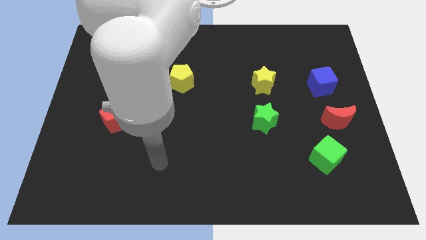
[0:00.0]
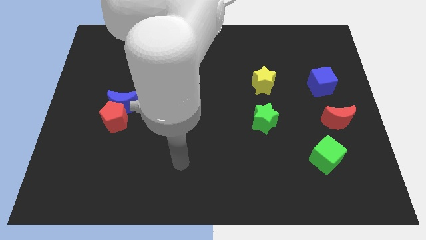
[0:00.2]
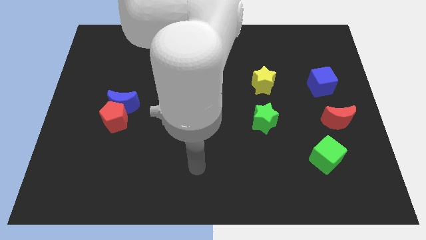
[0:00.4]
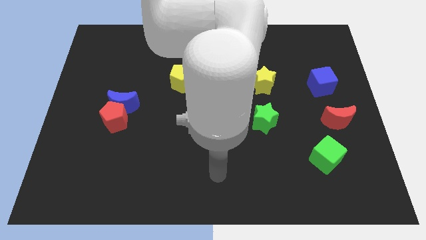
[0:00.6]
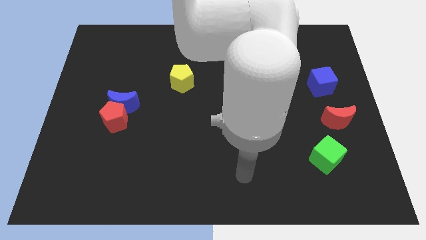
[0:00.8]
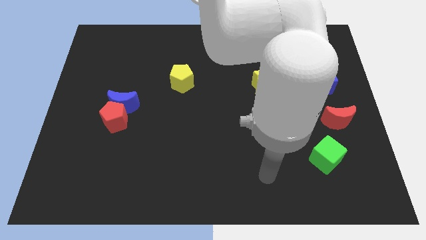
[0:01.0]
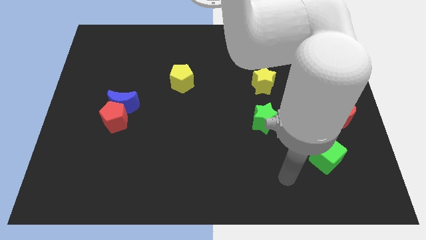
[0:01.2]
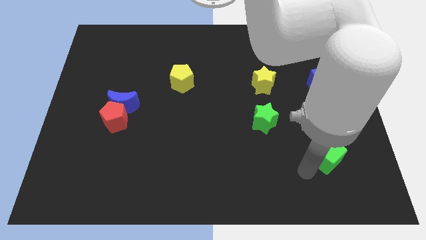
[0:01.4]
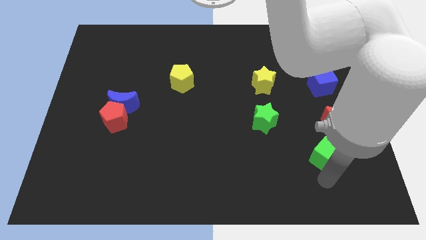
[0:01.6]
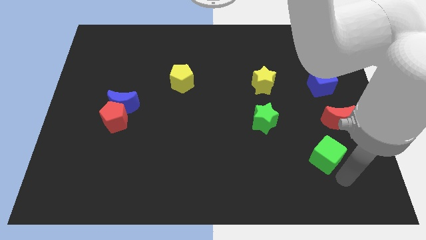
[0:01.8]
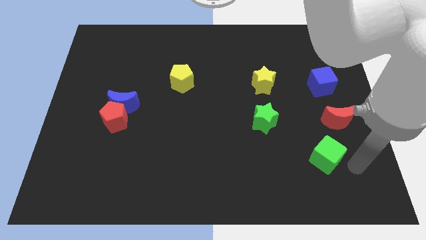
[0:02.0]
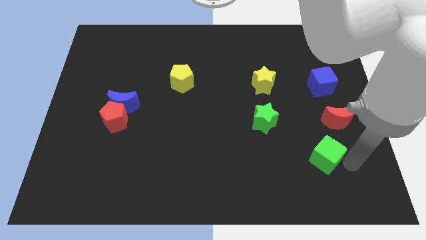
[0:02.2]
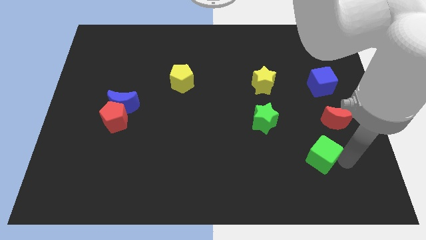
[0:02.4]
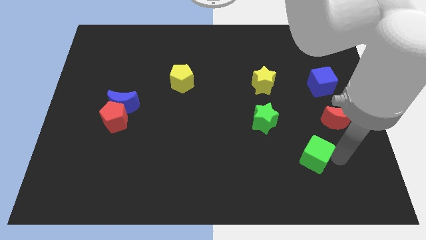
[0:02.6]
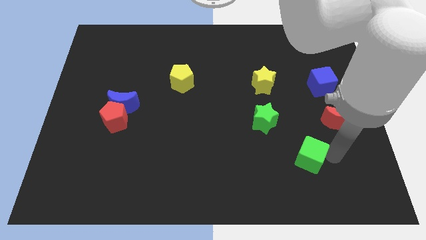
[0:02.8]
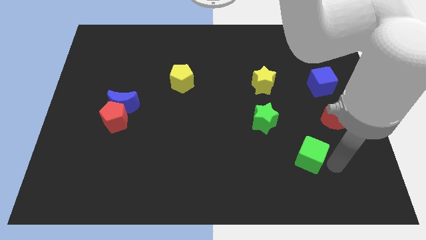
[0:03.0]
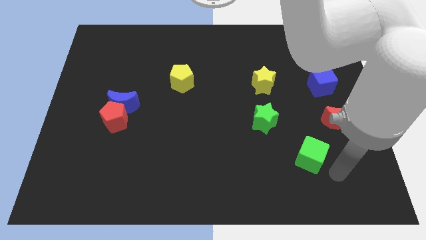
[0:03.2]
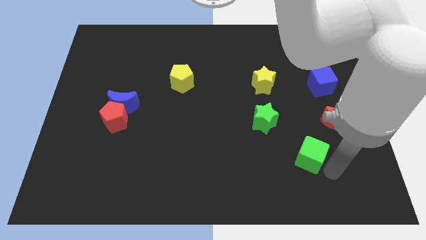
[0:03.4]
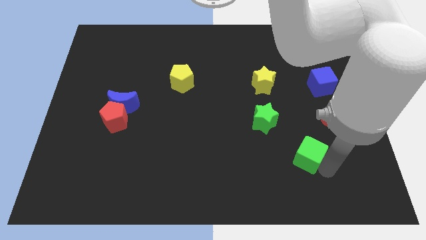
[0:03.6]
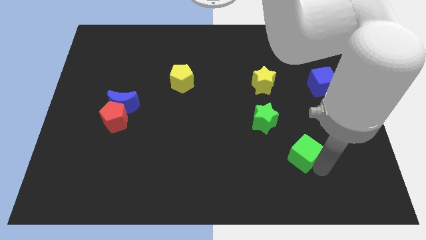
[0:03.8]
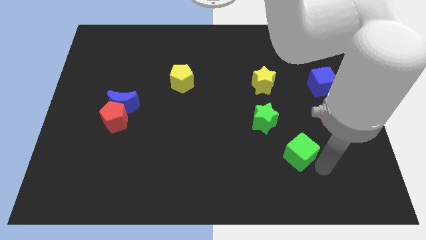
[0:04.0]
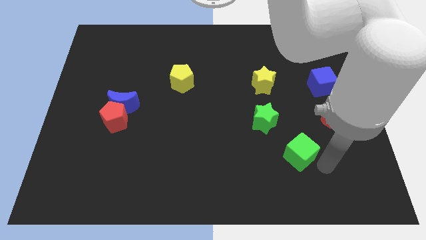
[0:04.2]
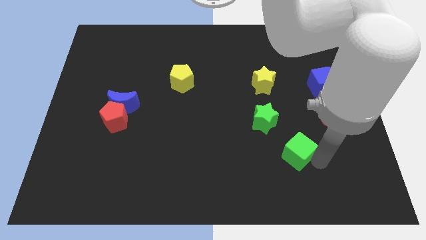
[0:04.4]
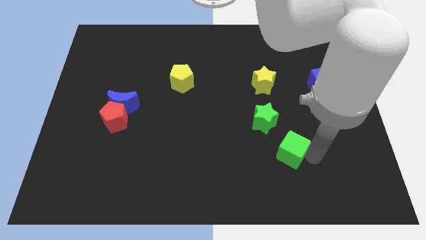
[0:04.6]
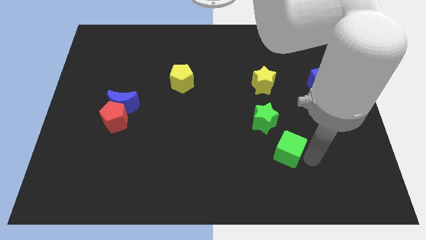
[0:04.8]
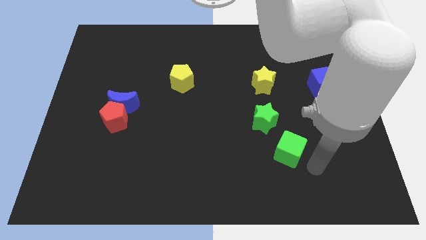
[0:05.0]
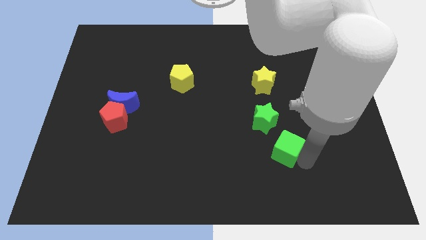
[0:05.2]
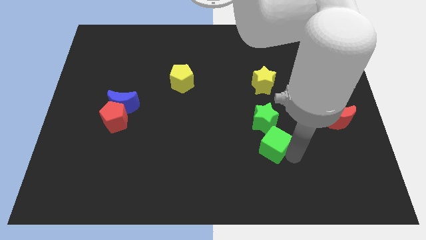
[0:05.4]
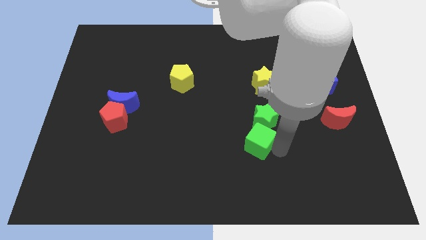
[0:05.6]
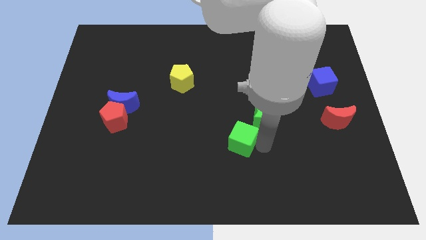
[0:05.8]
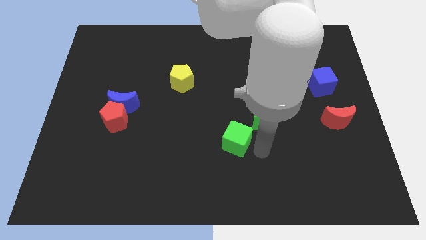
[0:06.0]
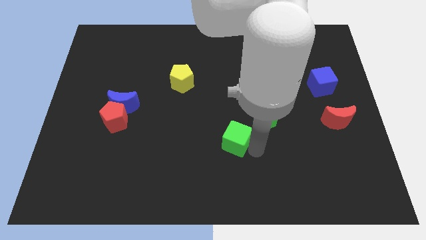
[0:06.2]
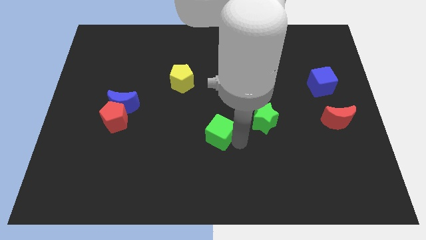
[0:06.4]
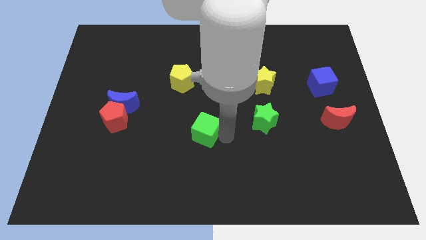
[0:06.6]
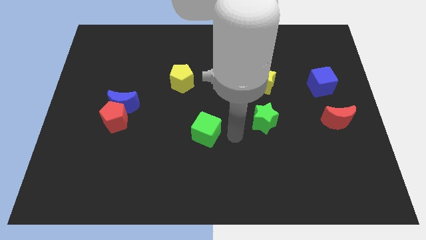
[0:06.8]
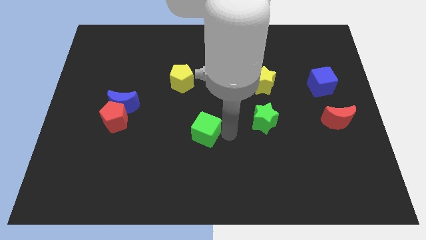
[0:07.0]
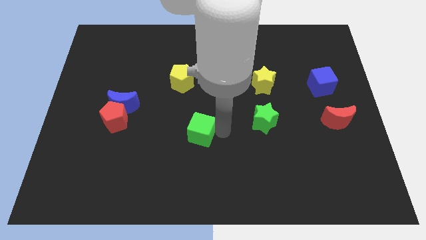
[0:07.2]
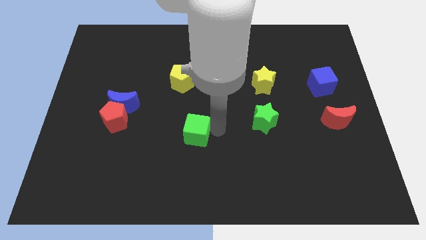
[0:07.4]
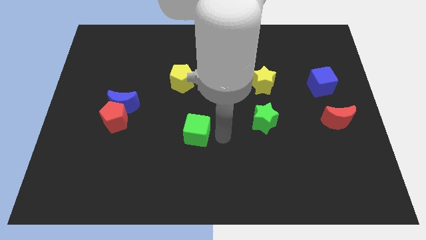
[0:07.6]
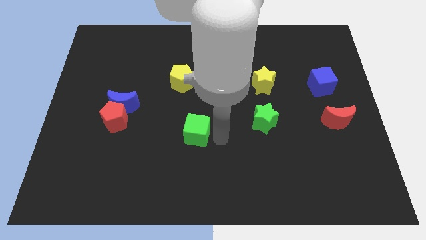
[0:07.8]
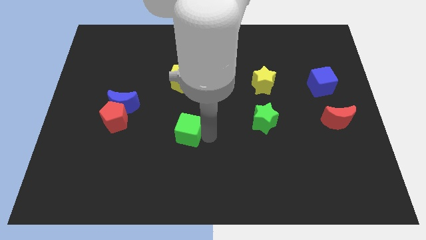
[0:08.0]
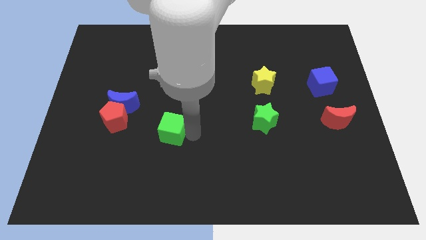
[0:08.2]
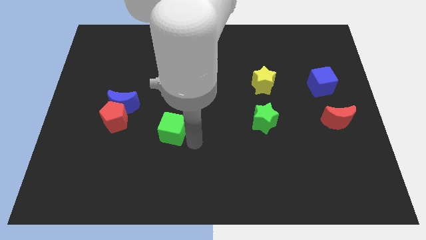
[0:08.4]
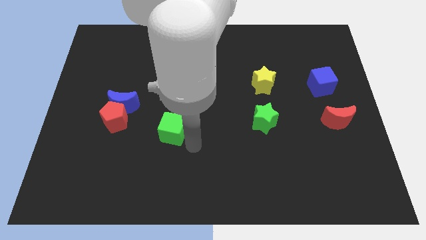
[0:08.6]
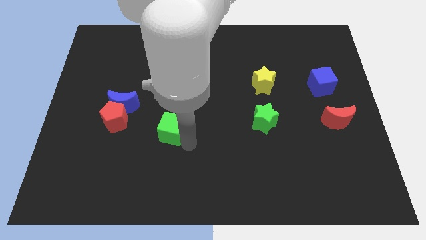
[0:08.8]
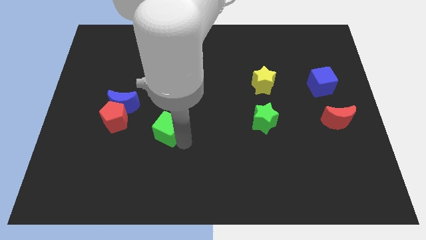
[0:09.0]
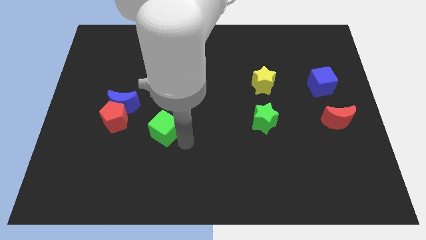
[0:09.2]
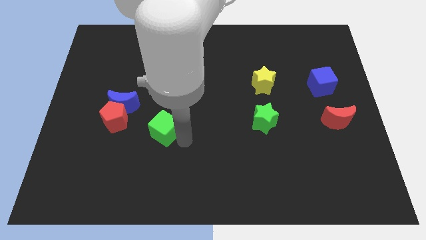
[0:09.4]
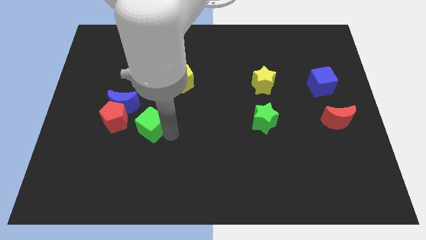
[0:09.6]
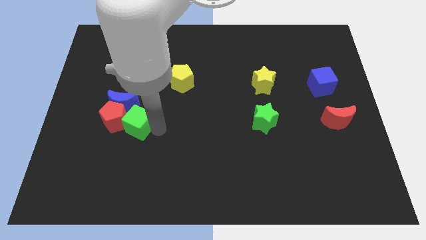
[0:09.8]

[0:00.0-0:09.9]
put the green cube towards the red pentagon

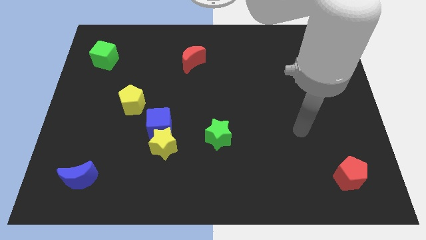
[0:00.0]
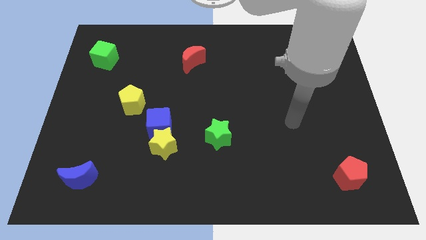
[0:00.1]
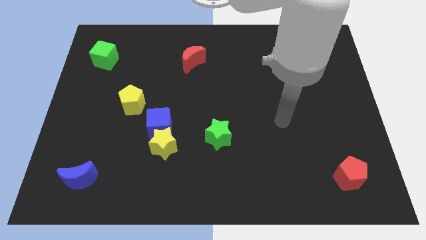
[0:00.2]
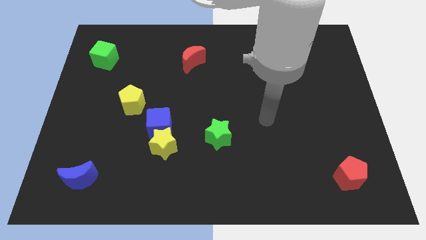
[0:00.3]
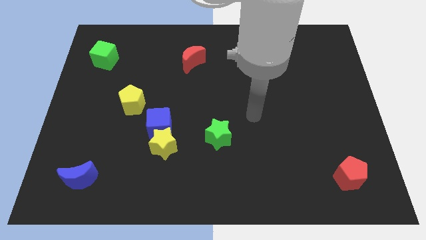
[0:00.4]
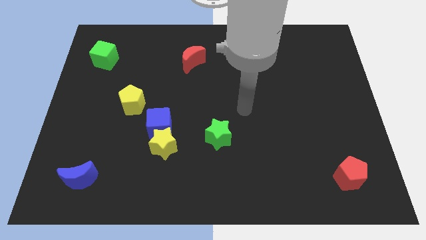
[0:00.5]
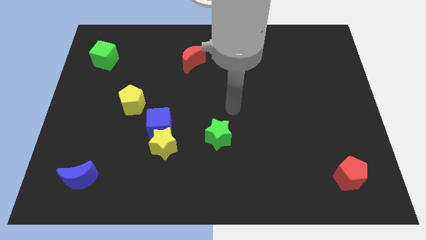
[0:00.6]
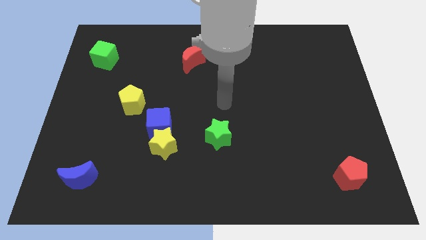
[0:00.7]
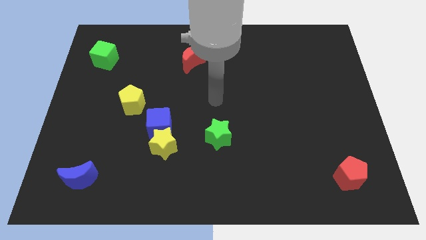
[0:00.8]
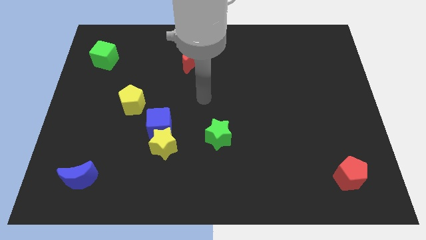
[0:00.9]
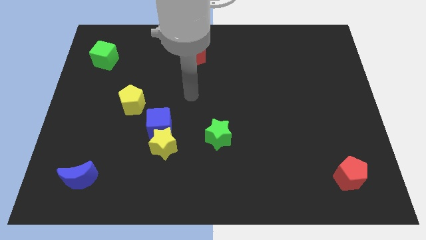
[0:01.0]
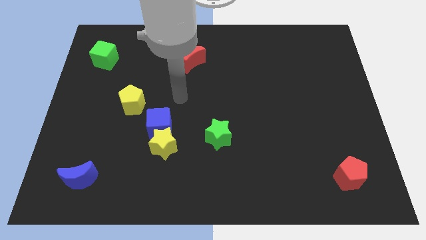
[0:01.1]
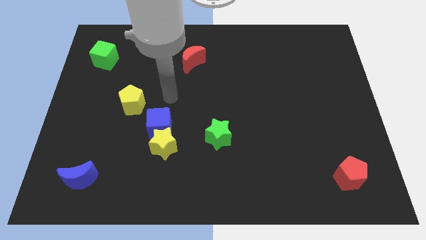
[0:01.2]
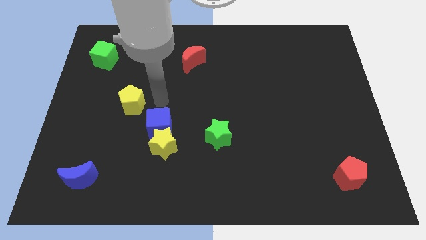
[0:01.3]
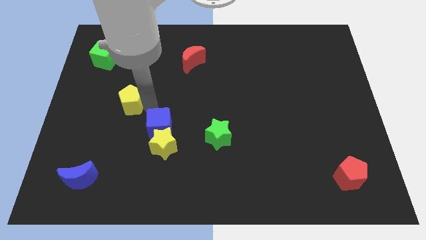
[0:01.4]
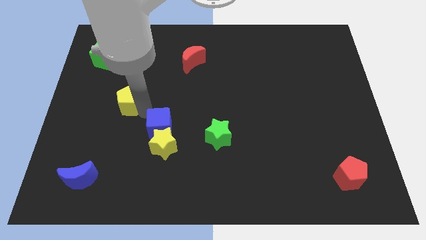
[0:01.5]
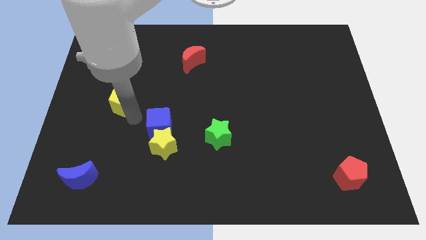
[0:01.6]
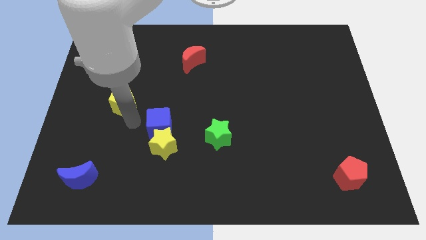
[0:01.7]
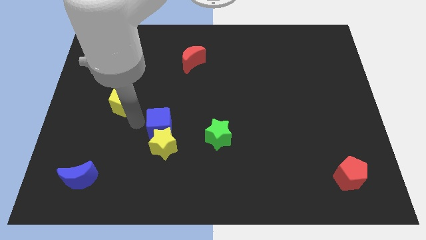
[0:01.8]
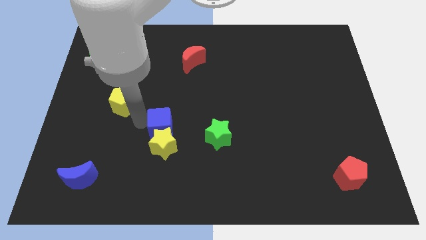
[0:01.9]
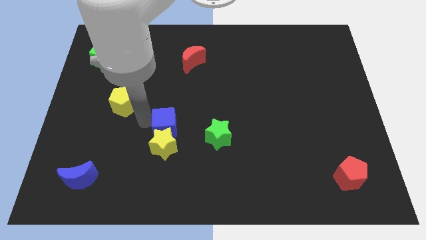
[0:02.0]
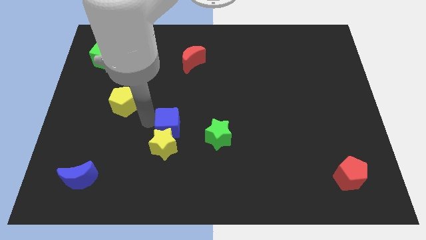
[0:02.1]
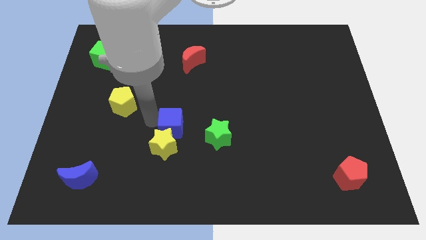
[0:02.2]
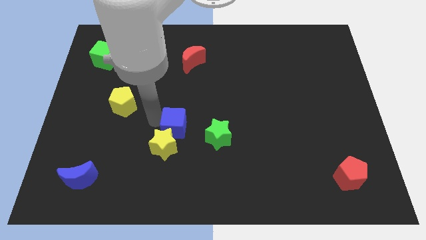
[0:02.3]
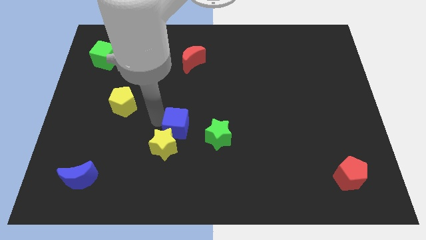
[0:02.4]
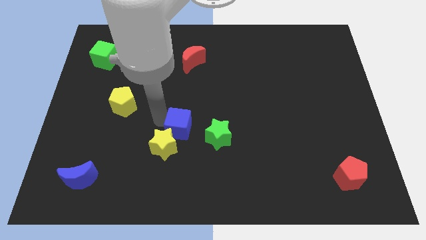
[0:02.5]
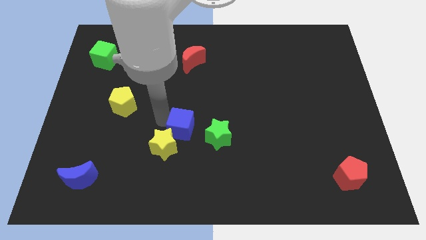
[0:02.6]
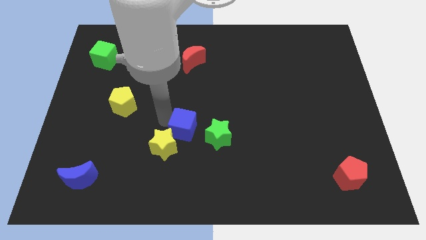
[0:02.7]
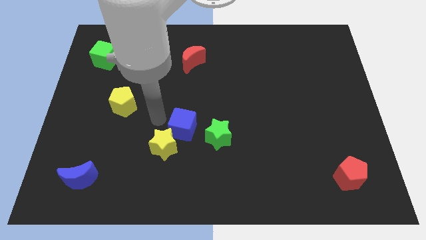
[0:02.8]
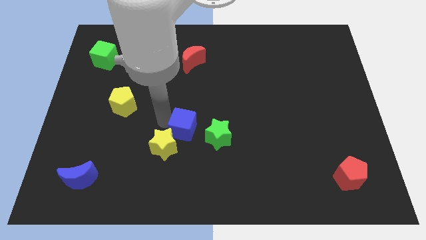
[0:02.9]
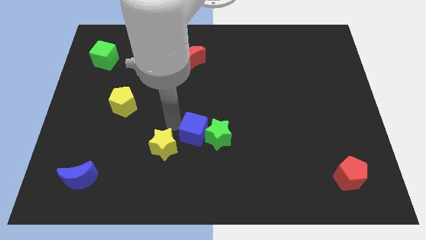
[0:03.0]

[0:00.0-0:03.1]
move the blue cube to the green star
